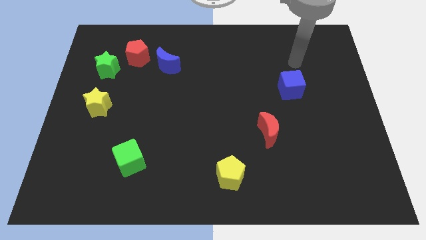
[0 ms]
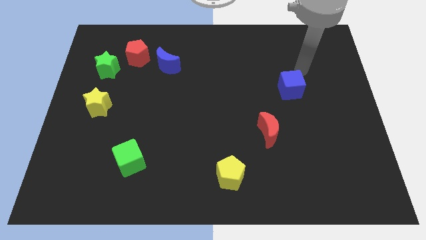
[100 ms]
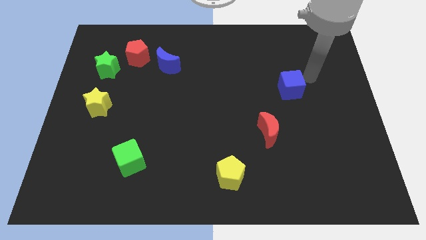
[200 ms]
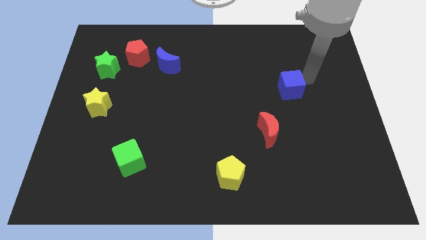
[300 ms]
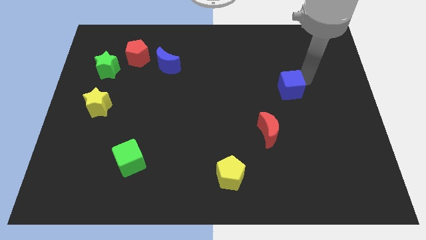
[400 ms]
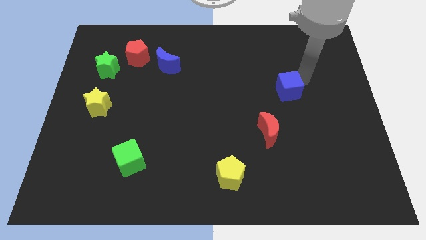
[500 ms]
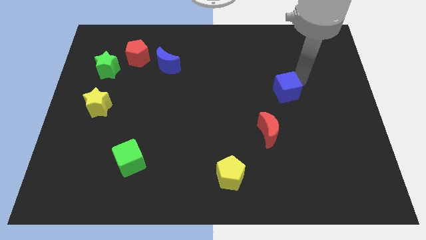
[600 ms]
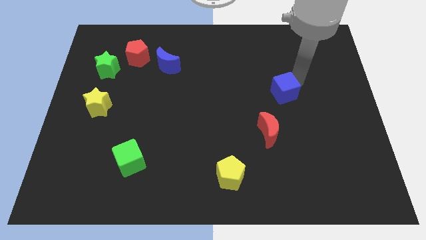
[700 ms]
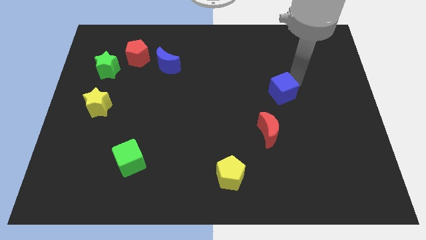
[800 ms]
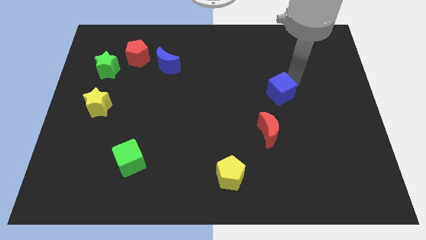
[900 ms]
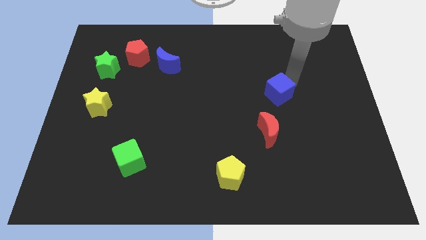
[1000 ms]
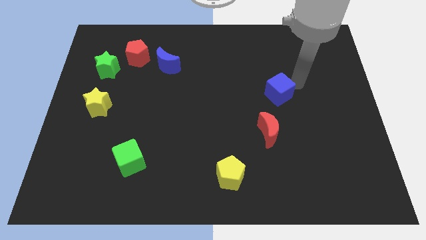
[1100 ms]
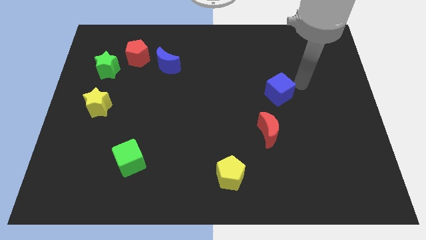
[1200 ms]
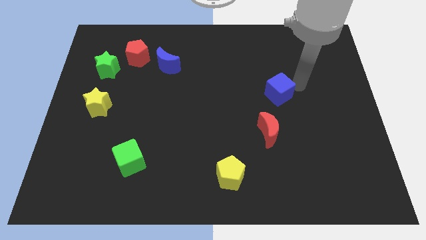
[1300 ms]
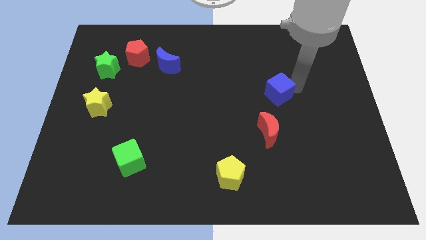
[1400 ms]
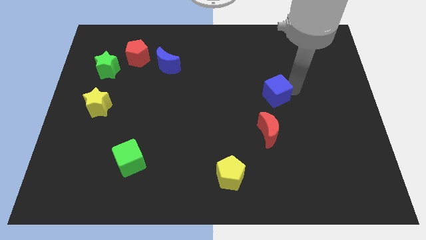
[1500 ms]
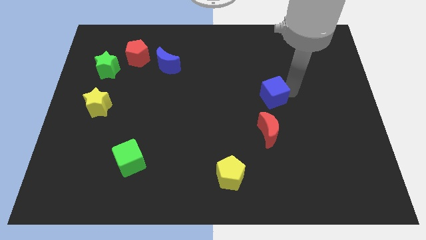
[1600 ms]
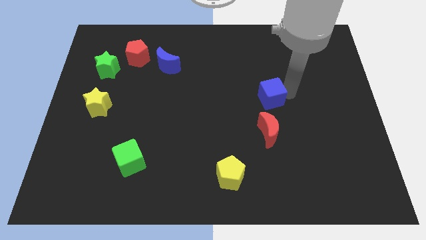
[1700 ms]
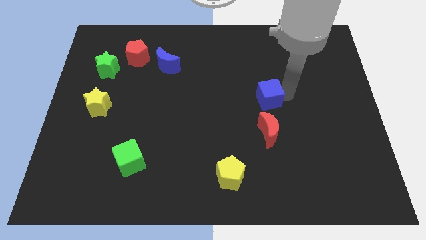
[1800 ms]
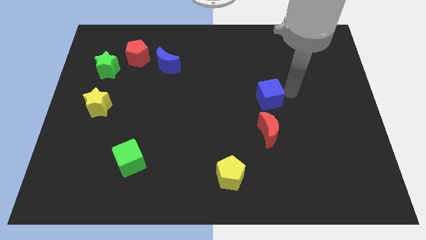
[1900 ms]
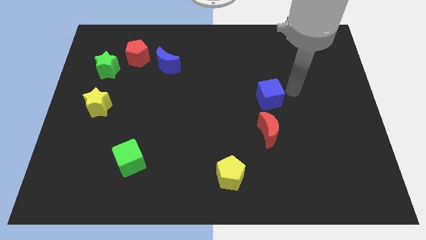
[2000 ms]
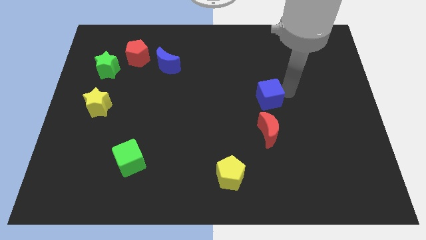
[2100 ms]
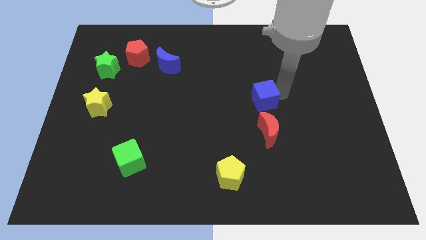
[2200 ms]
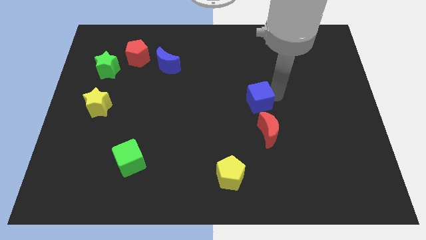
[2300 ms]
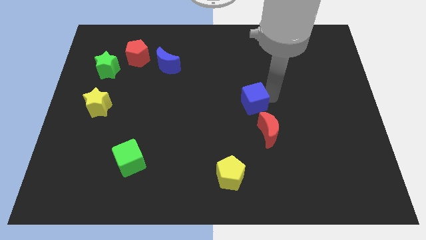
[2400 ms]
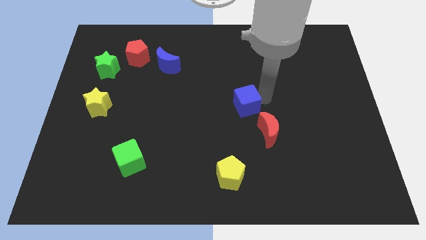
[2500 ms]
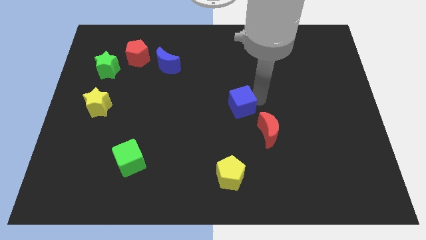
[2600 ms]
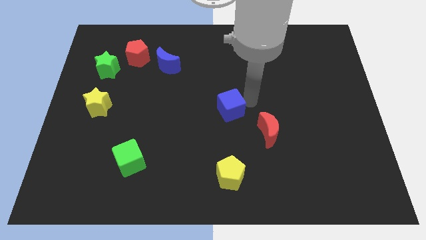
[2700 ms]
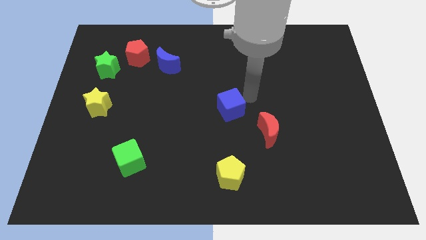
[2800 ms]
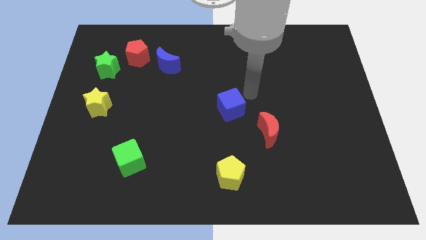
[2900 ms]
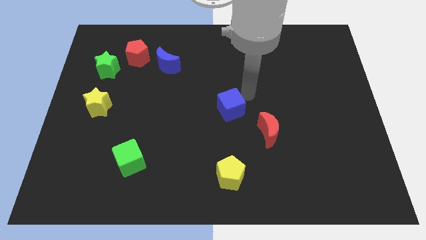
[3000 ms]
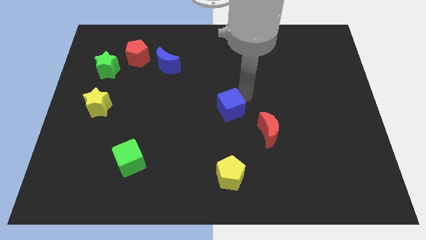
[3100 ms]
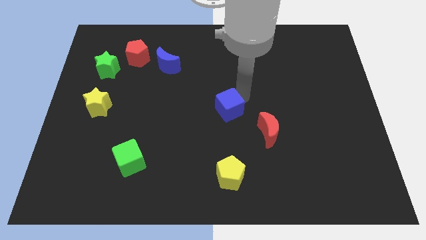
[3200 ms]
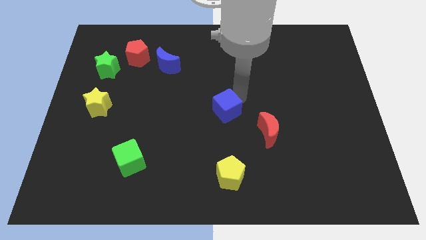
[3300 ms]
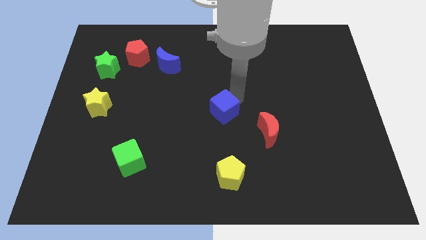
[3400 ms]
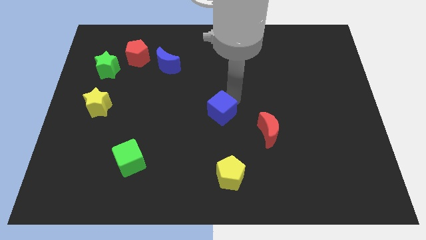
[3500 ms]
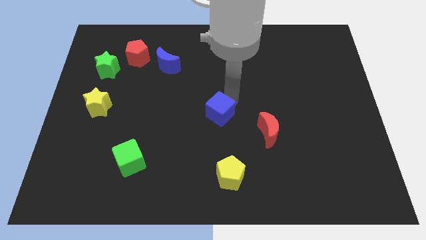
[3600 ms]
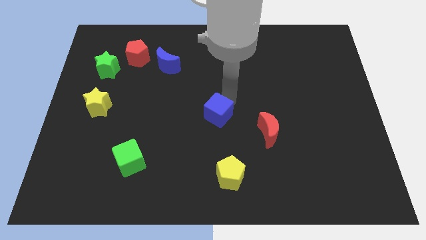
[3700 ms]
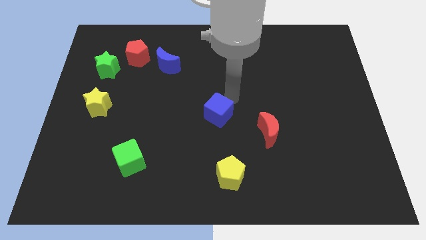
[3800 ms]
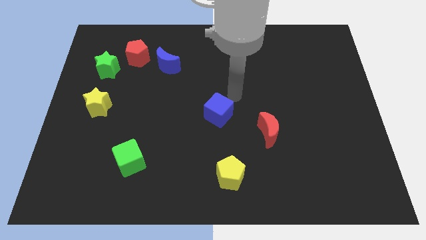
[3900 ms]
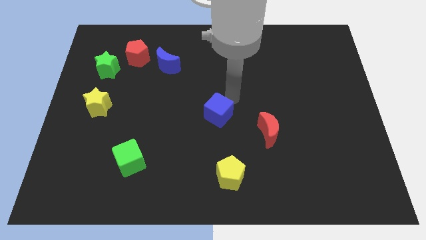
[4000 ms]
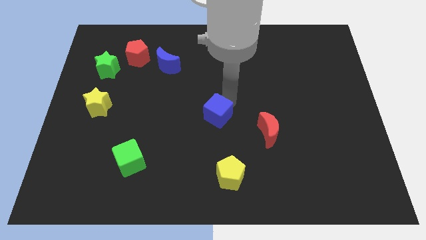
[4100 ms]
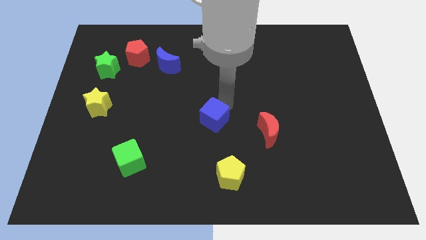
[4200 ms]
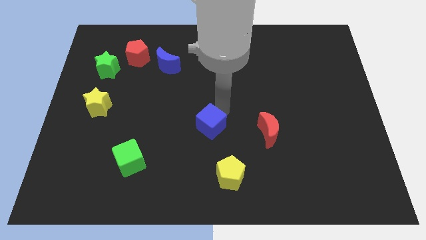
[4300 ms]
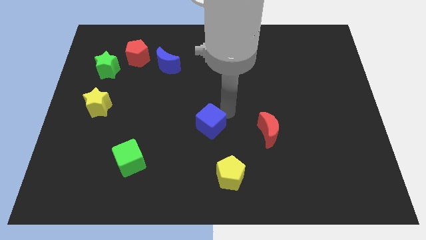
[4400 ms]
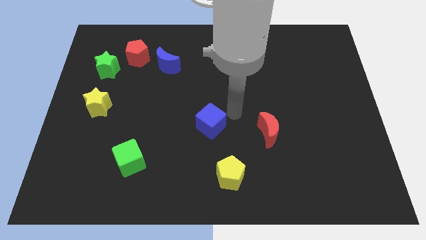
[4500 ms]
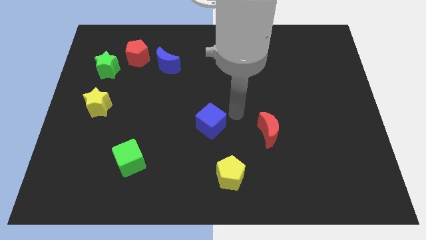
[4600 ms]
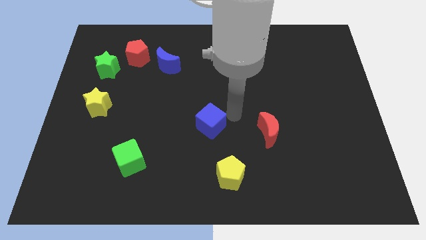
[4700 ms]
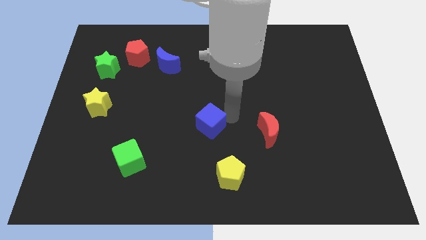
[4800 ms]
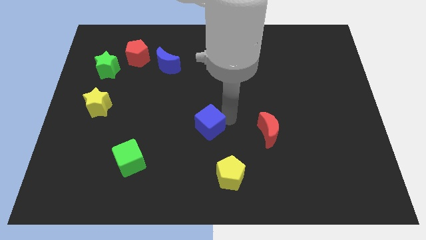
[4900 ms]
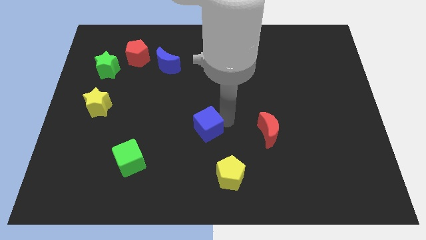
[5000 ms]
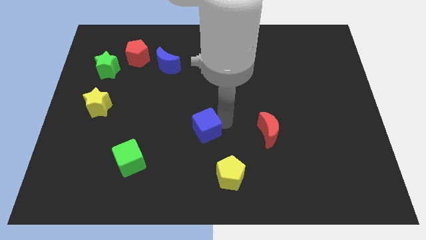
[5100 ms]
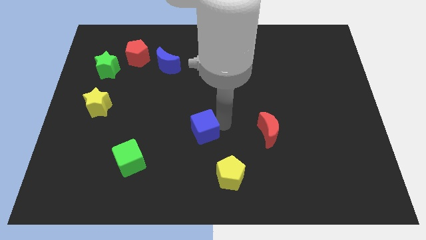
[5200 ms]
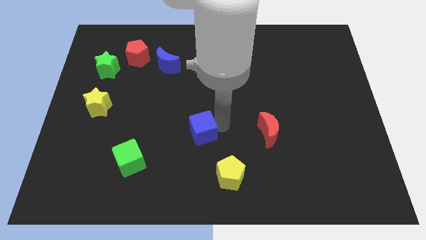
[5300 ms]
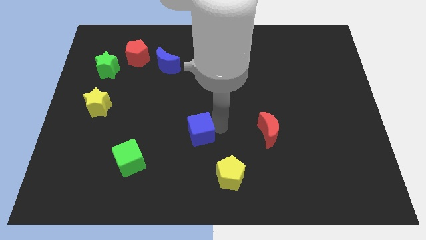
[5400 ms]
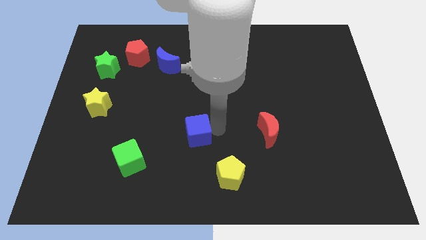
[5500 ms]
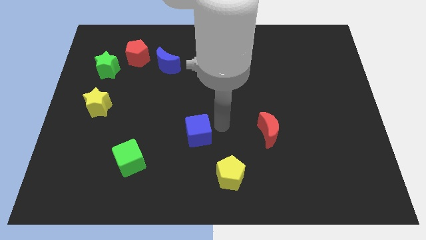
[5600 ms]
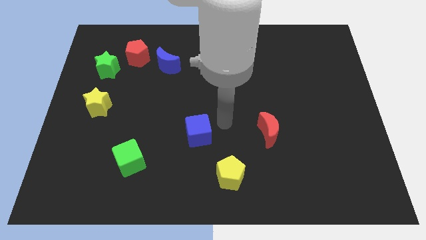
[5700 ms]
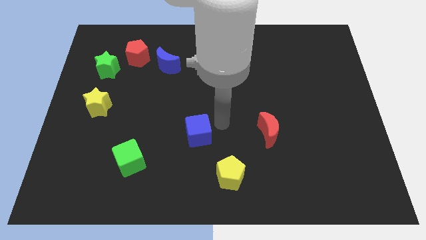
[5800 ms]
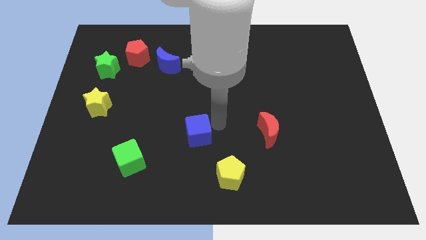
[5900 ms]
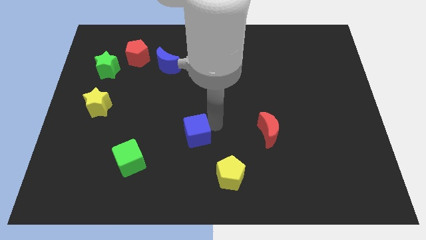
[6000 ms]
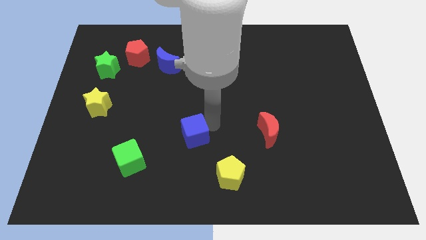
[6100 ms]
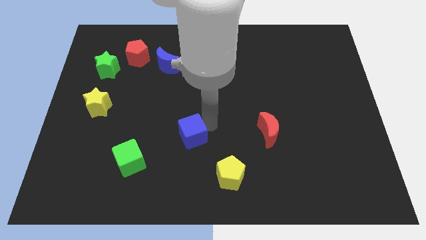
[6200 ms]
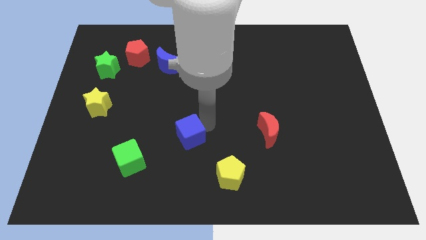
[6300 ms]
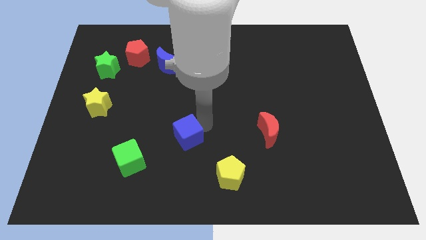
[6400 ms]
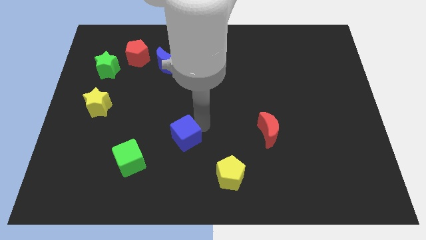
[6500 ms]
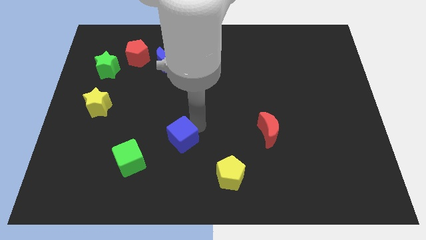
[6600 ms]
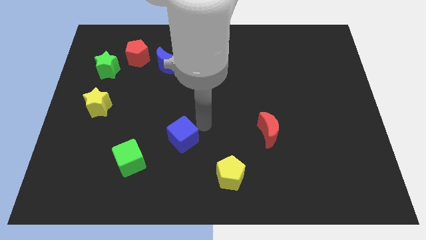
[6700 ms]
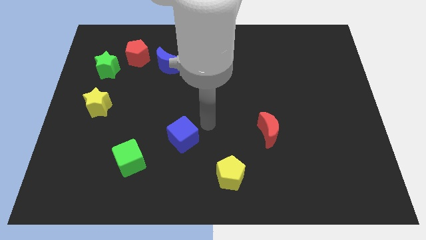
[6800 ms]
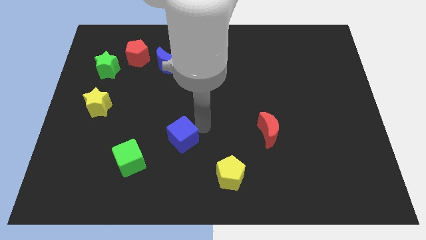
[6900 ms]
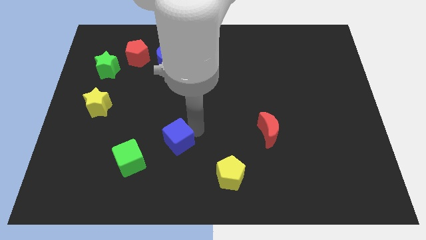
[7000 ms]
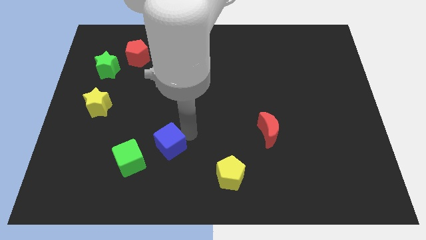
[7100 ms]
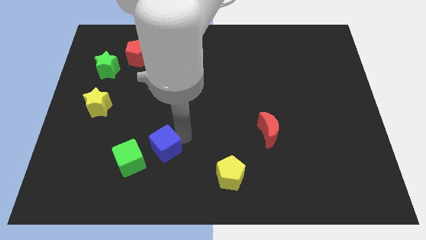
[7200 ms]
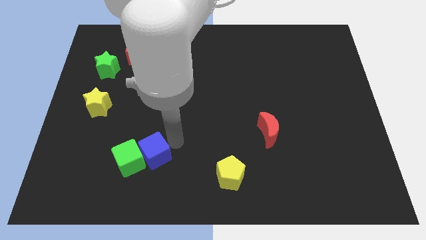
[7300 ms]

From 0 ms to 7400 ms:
move the blue cube towards the green cube
